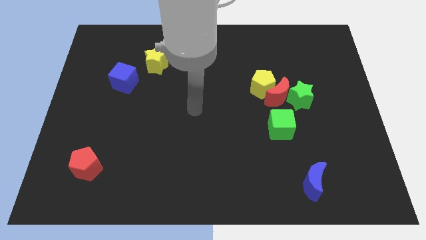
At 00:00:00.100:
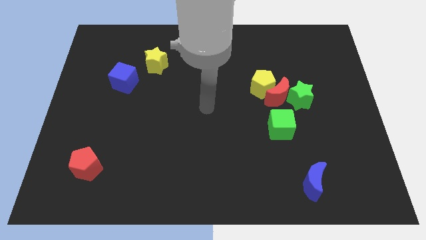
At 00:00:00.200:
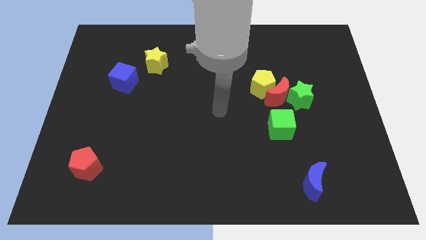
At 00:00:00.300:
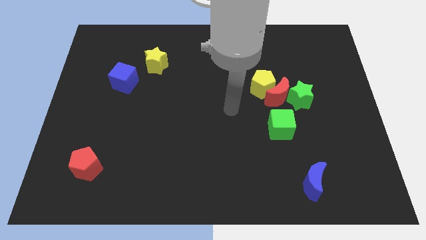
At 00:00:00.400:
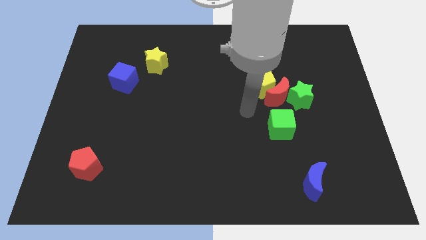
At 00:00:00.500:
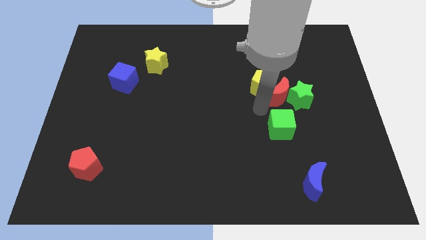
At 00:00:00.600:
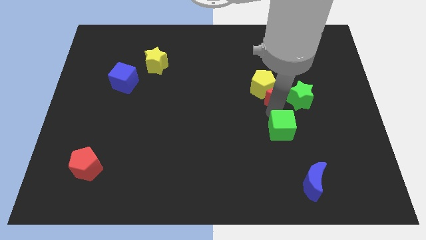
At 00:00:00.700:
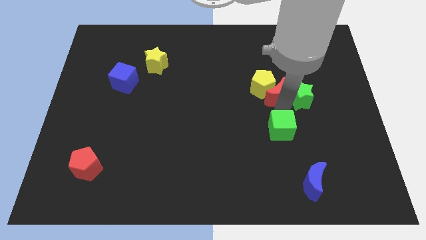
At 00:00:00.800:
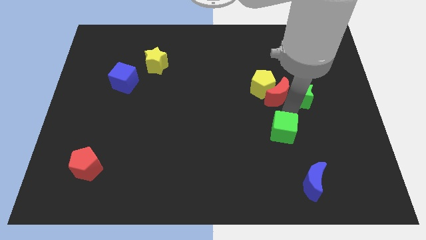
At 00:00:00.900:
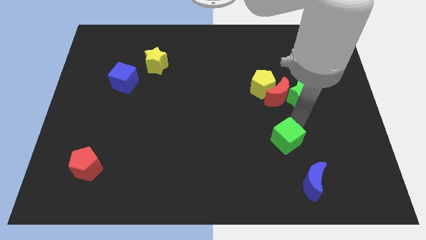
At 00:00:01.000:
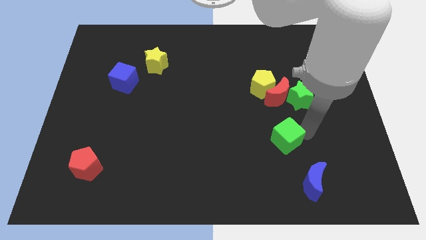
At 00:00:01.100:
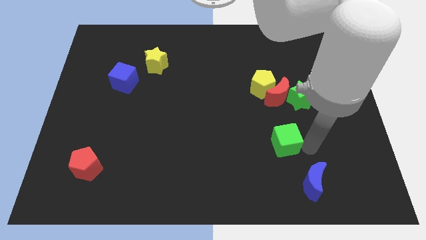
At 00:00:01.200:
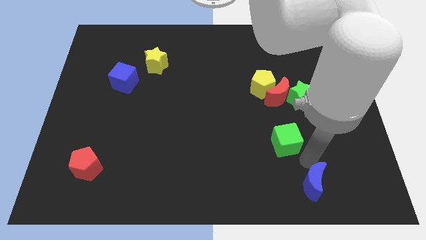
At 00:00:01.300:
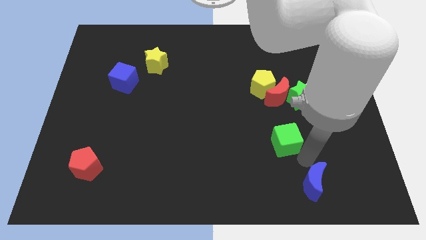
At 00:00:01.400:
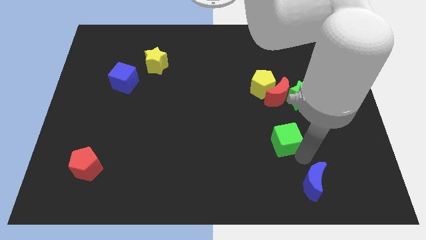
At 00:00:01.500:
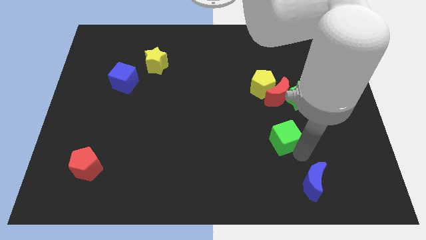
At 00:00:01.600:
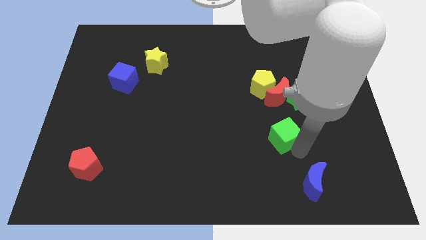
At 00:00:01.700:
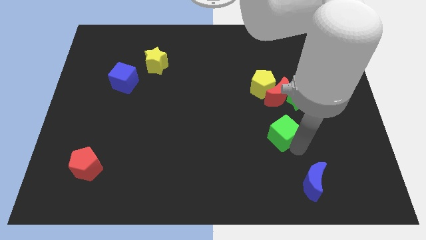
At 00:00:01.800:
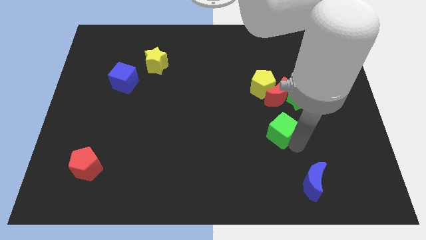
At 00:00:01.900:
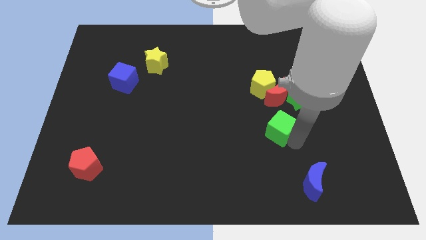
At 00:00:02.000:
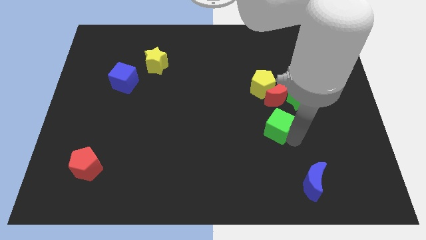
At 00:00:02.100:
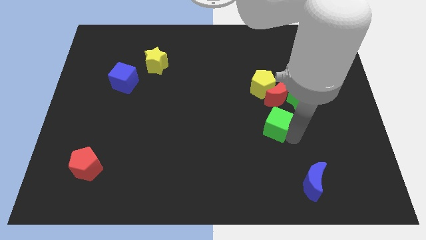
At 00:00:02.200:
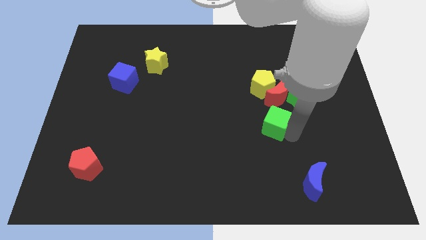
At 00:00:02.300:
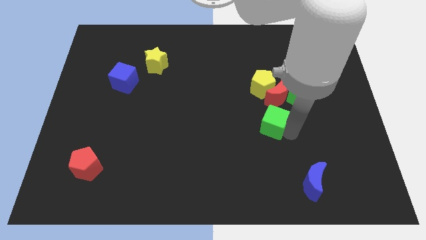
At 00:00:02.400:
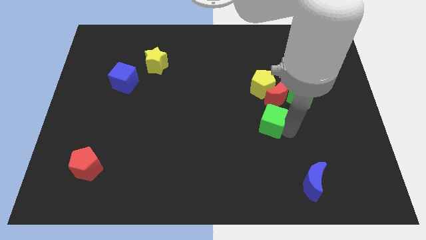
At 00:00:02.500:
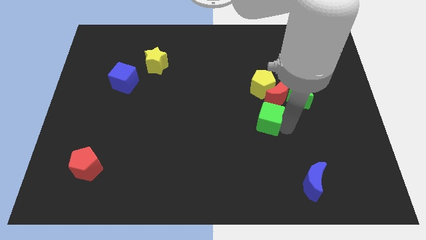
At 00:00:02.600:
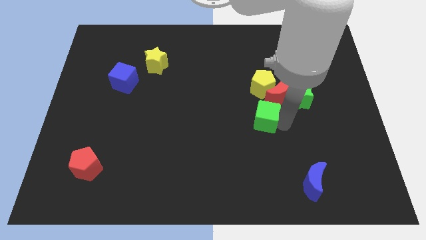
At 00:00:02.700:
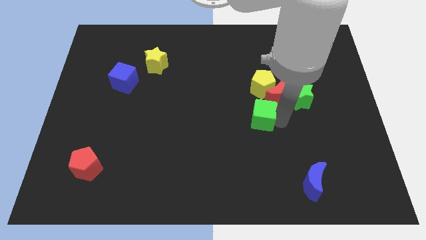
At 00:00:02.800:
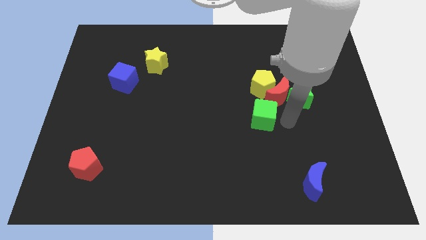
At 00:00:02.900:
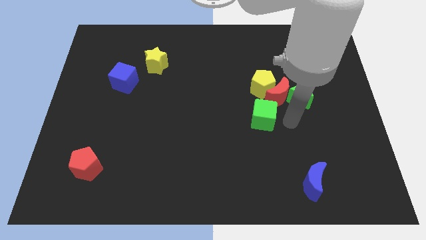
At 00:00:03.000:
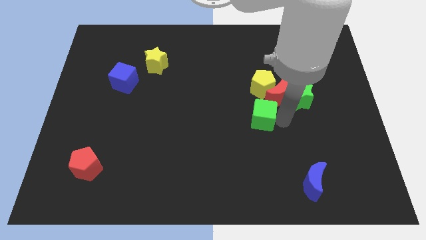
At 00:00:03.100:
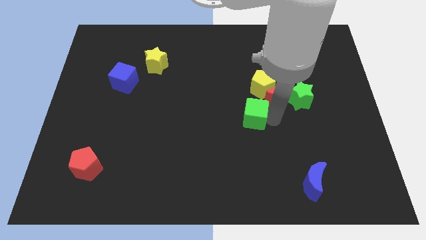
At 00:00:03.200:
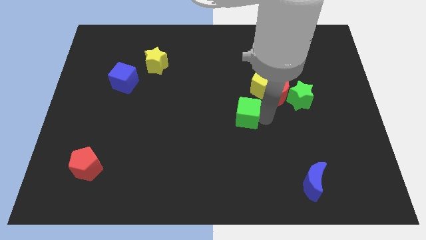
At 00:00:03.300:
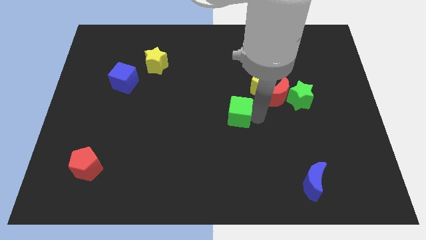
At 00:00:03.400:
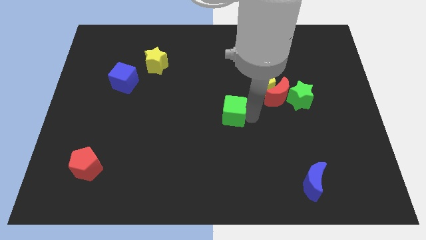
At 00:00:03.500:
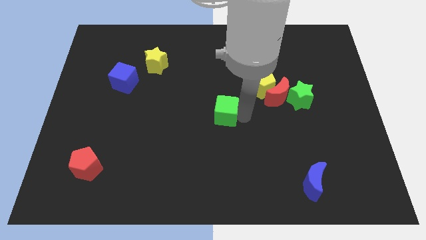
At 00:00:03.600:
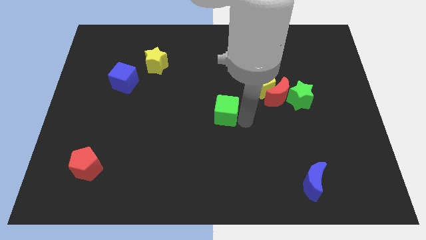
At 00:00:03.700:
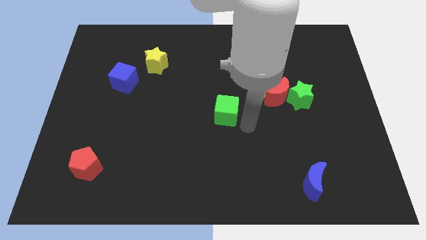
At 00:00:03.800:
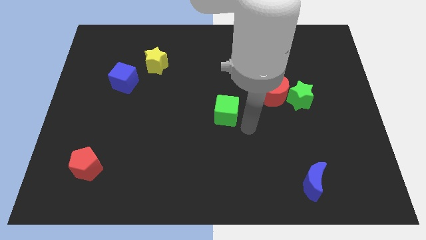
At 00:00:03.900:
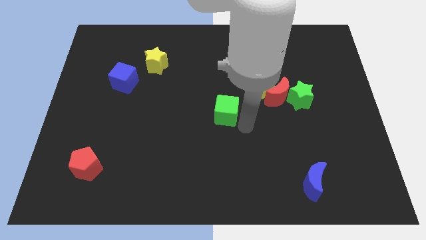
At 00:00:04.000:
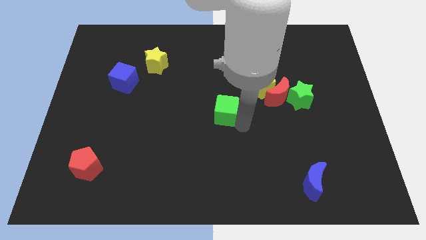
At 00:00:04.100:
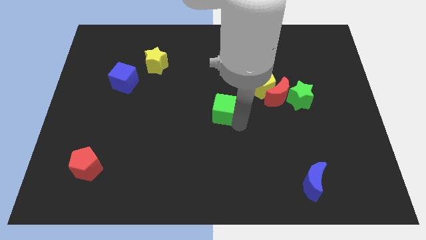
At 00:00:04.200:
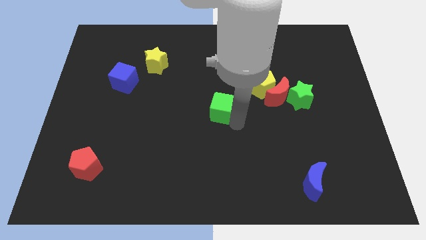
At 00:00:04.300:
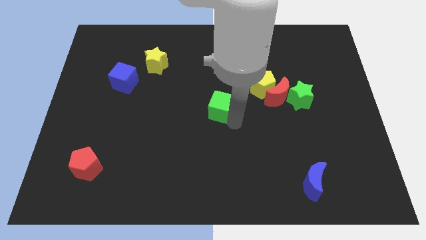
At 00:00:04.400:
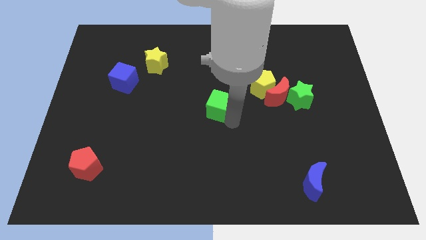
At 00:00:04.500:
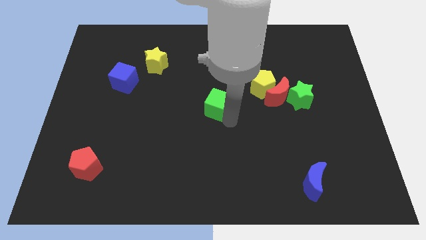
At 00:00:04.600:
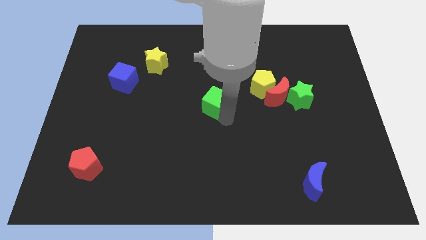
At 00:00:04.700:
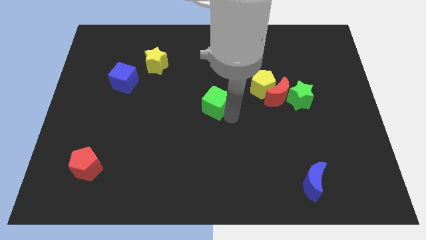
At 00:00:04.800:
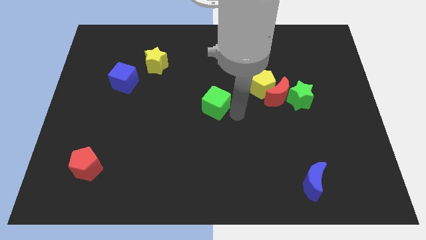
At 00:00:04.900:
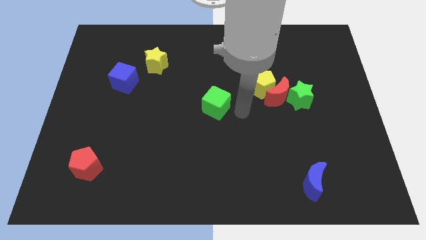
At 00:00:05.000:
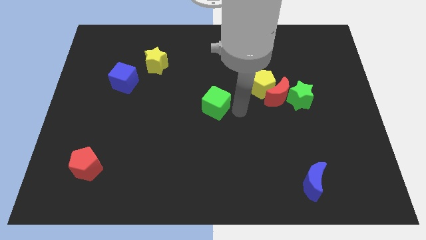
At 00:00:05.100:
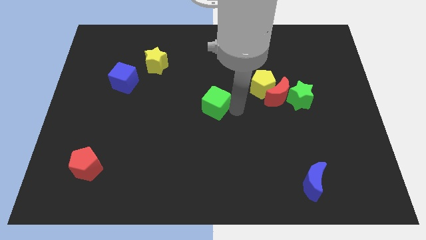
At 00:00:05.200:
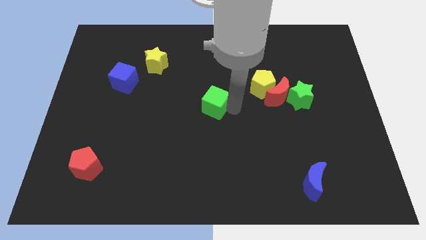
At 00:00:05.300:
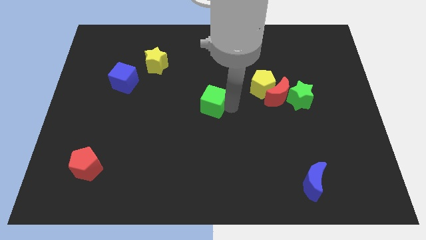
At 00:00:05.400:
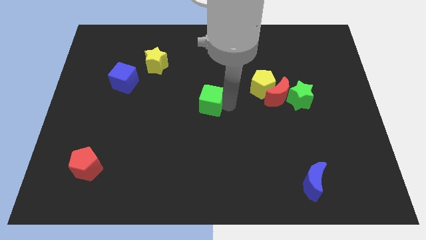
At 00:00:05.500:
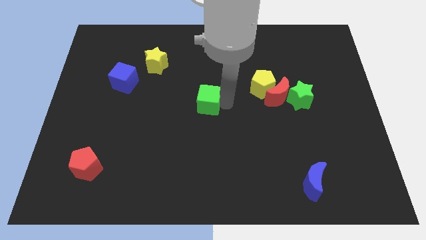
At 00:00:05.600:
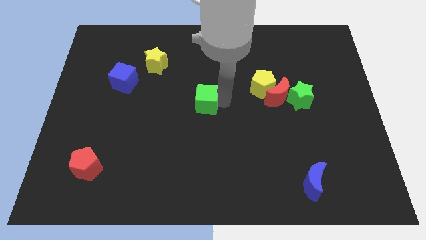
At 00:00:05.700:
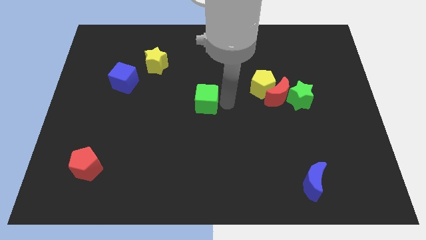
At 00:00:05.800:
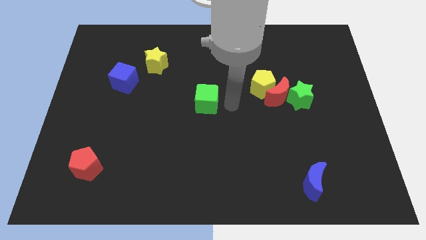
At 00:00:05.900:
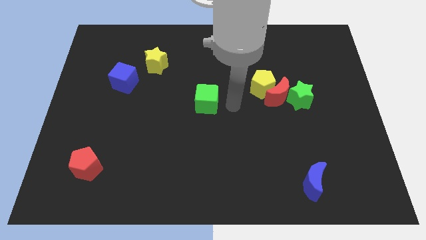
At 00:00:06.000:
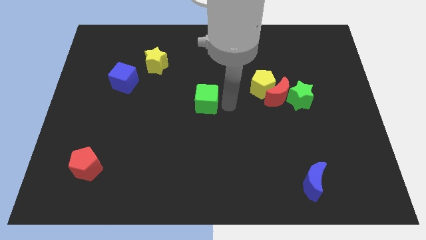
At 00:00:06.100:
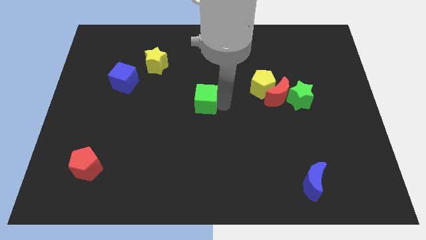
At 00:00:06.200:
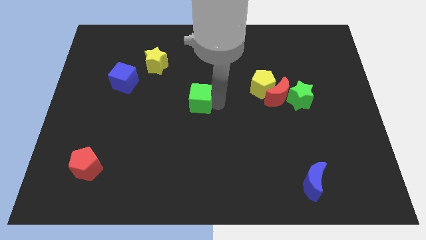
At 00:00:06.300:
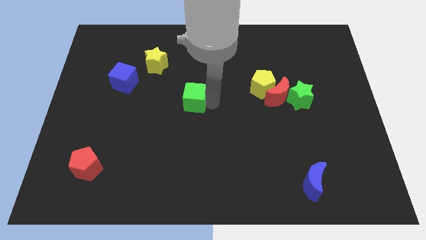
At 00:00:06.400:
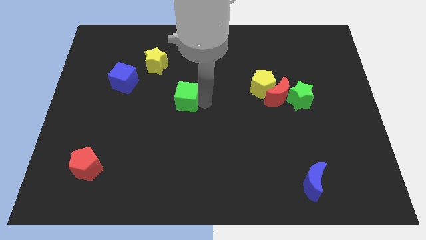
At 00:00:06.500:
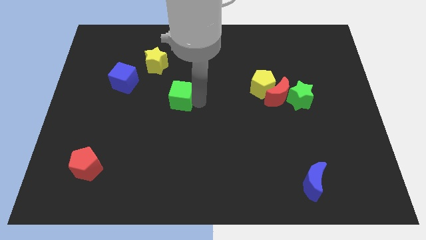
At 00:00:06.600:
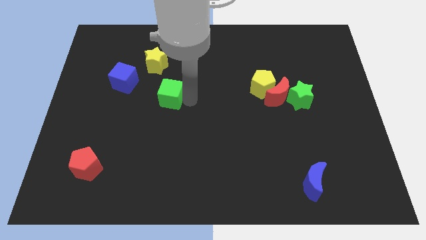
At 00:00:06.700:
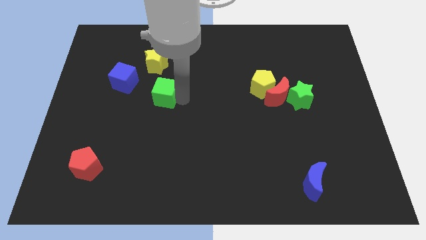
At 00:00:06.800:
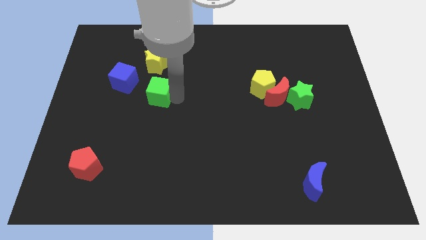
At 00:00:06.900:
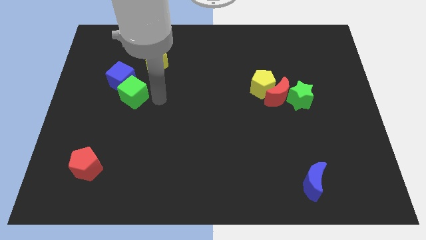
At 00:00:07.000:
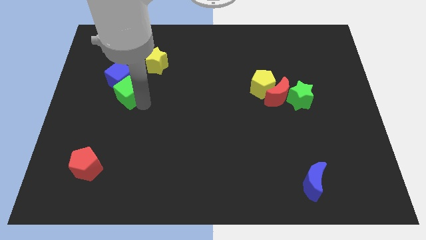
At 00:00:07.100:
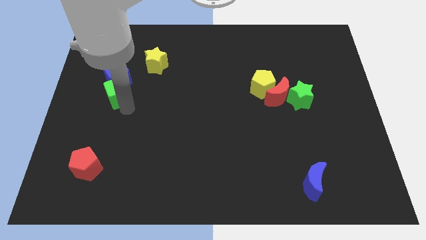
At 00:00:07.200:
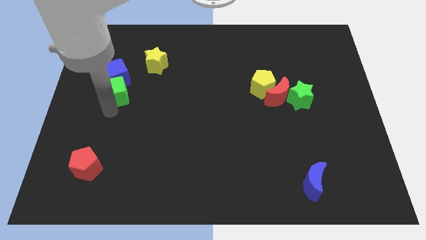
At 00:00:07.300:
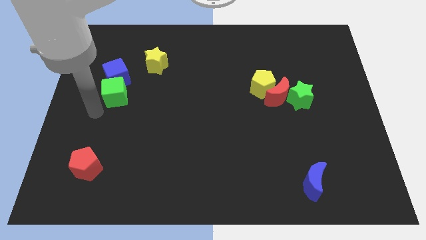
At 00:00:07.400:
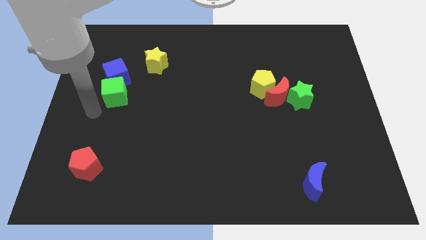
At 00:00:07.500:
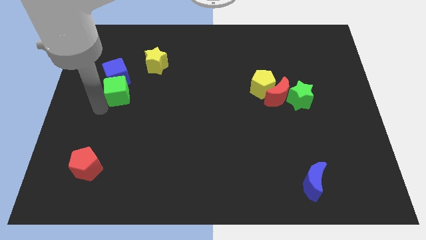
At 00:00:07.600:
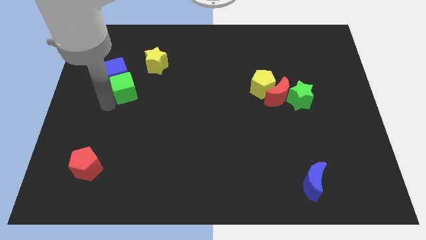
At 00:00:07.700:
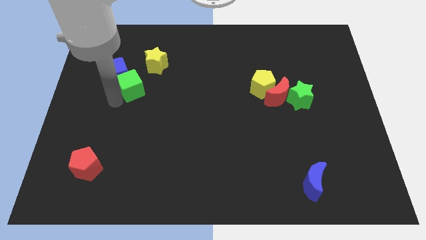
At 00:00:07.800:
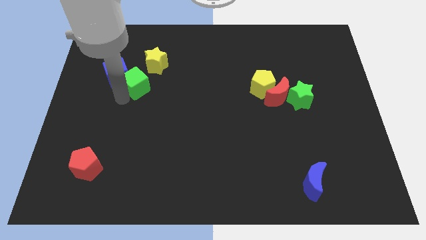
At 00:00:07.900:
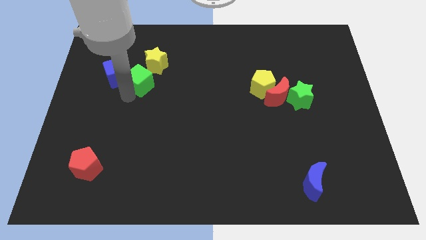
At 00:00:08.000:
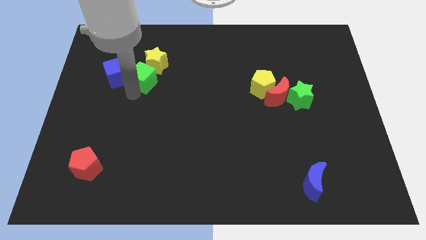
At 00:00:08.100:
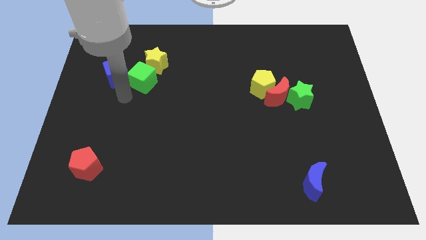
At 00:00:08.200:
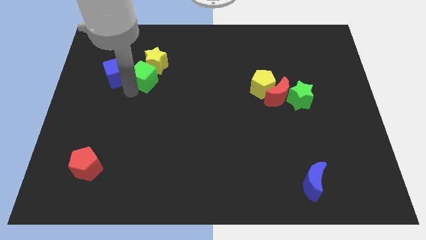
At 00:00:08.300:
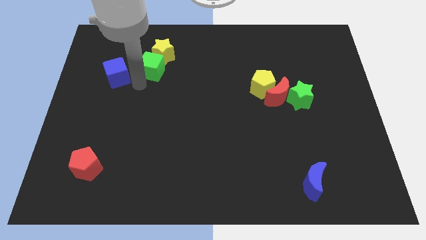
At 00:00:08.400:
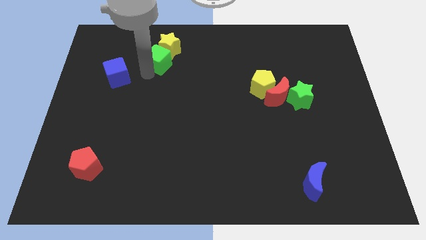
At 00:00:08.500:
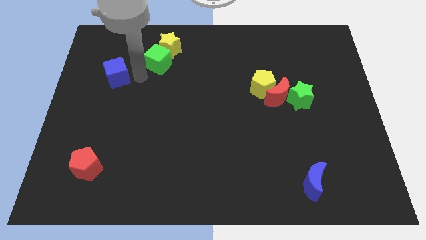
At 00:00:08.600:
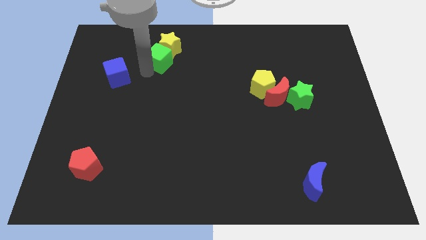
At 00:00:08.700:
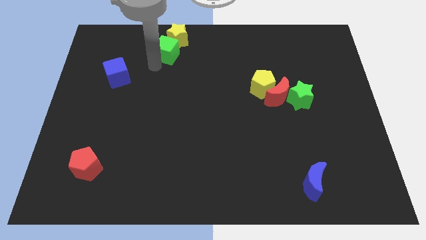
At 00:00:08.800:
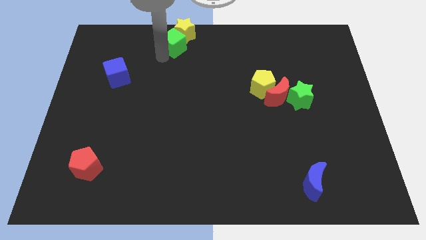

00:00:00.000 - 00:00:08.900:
slide the green cube to the towards your base
